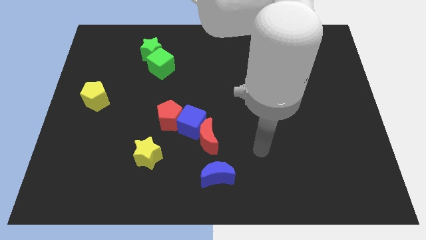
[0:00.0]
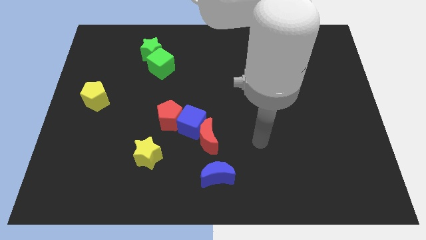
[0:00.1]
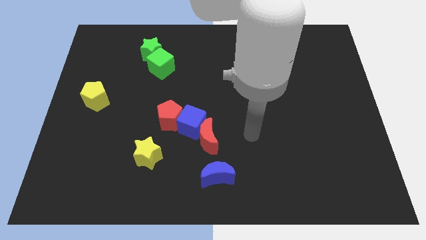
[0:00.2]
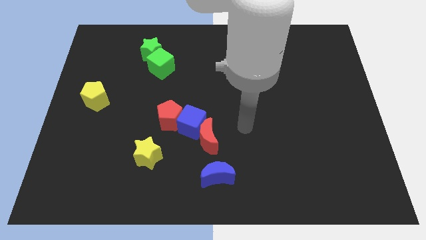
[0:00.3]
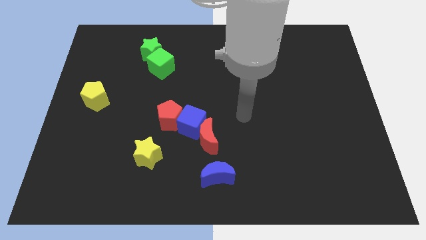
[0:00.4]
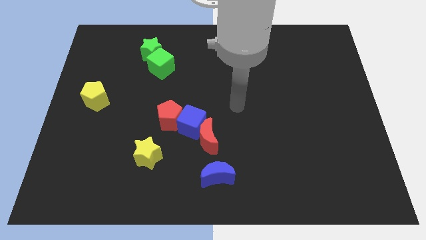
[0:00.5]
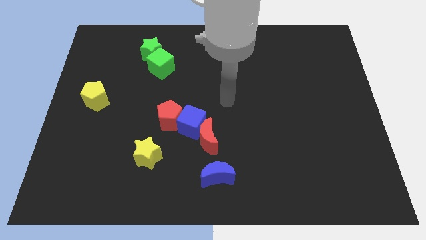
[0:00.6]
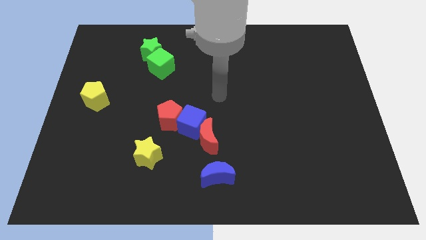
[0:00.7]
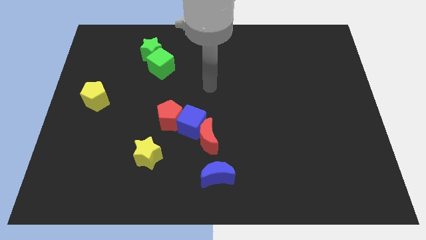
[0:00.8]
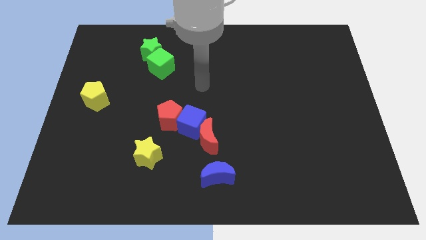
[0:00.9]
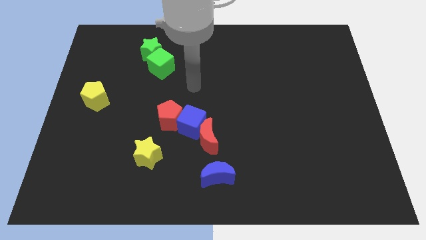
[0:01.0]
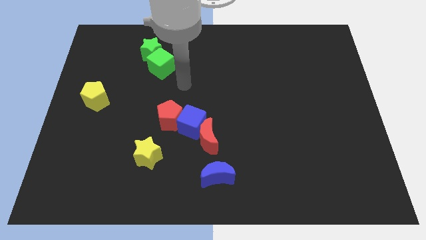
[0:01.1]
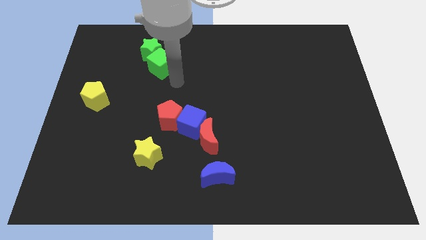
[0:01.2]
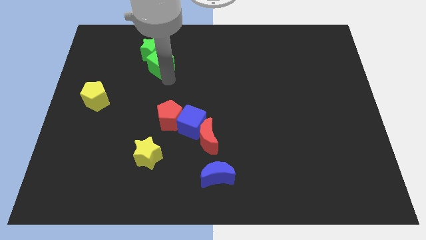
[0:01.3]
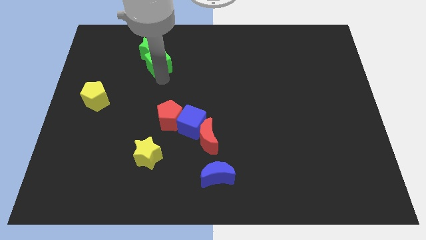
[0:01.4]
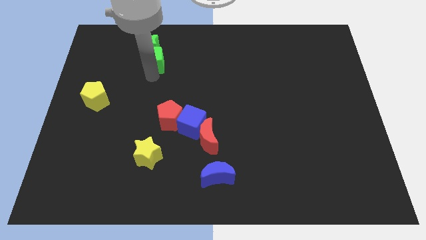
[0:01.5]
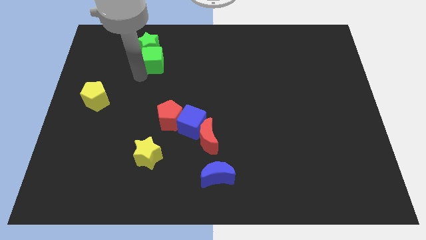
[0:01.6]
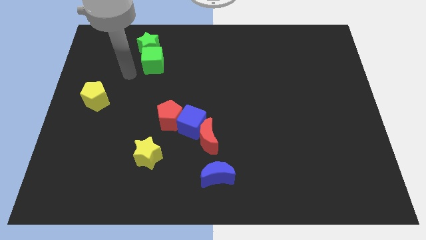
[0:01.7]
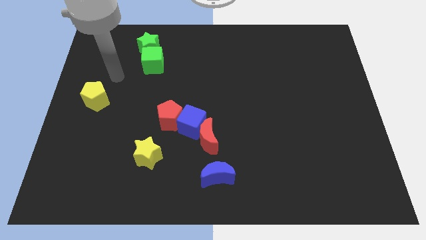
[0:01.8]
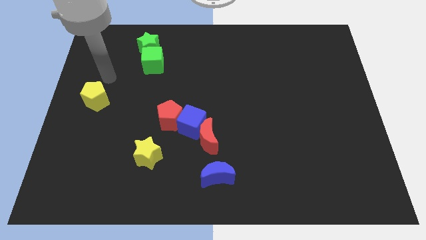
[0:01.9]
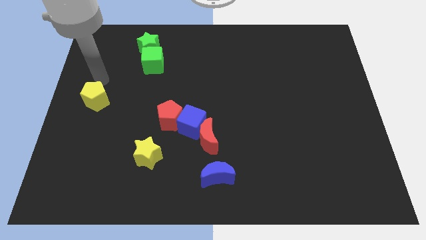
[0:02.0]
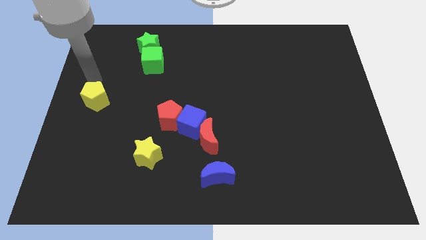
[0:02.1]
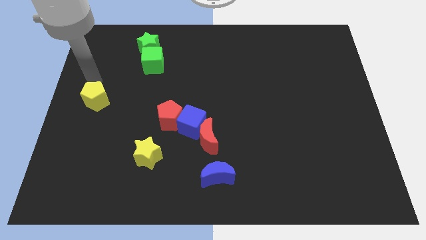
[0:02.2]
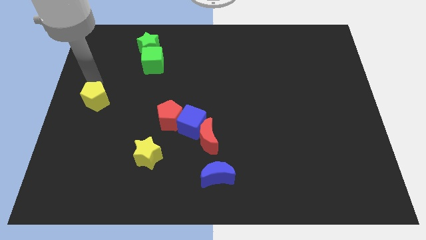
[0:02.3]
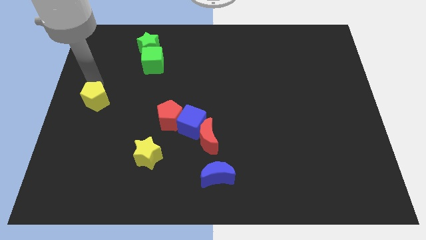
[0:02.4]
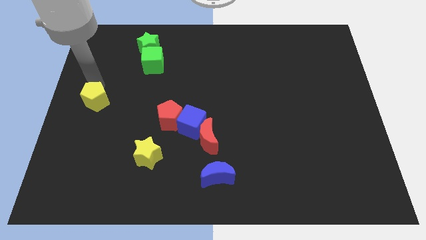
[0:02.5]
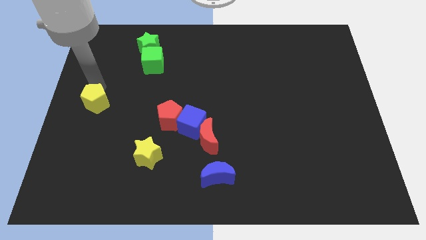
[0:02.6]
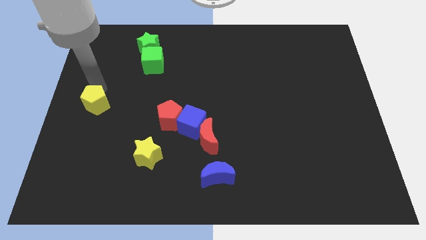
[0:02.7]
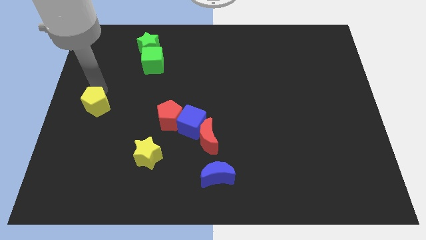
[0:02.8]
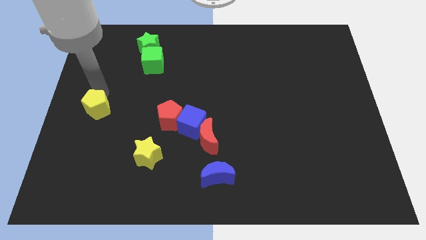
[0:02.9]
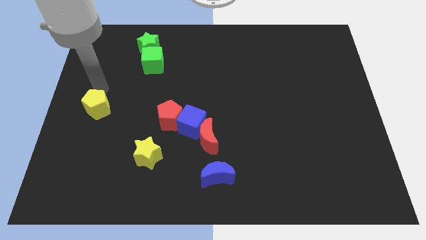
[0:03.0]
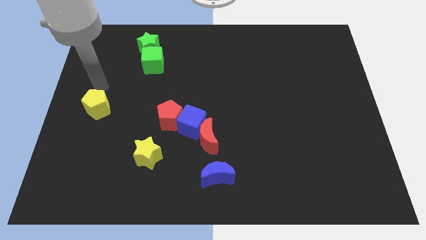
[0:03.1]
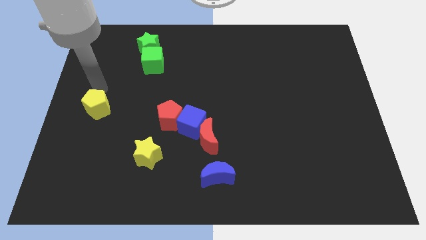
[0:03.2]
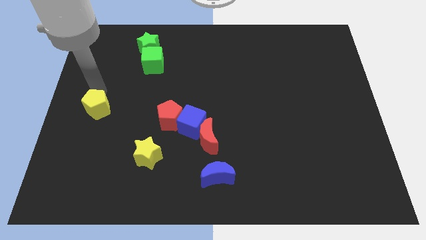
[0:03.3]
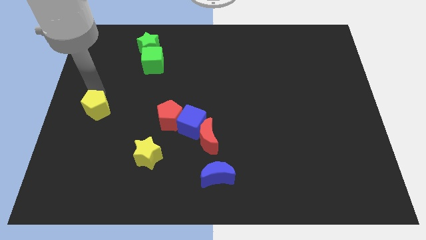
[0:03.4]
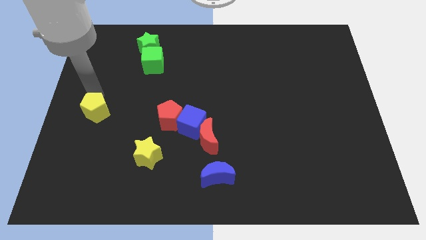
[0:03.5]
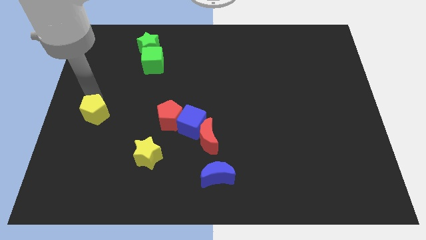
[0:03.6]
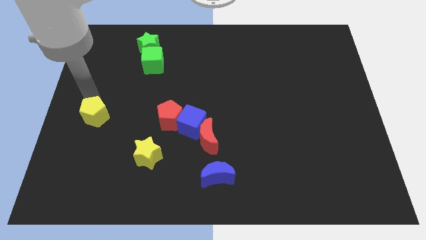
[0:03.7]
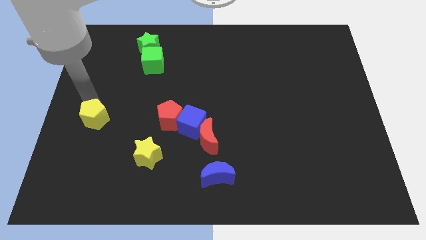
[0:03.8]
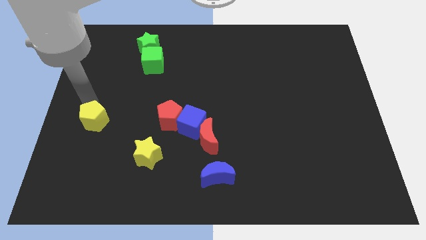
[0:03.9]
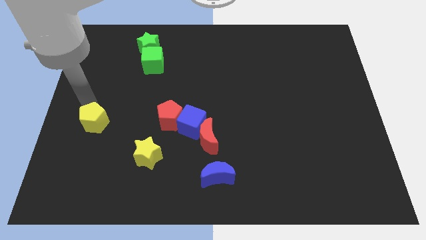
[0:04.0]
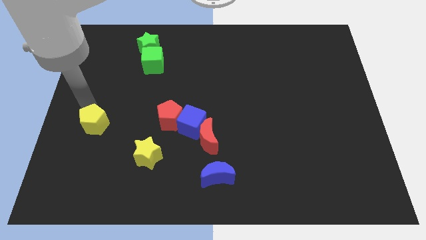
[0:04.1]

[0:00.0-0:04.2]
push the yellow pentagon a bit down

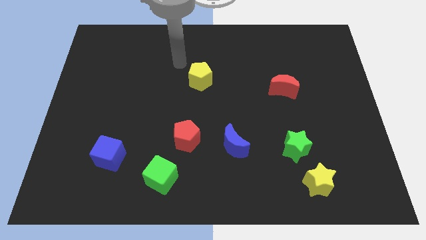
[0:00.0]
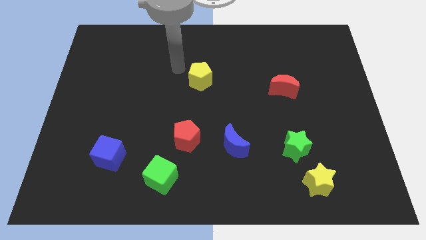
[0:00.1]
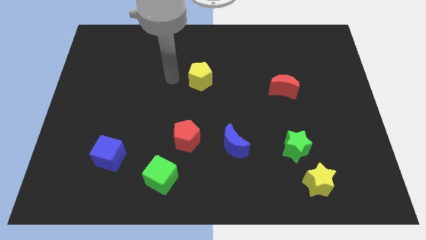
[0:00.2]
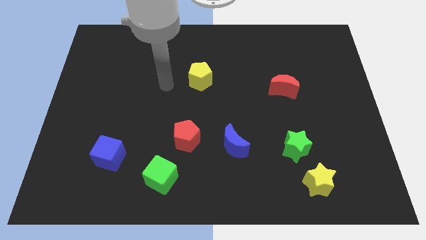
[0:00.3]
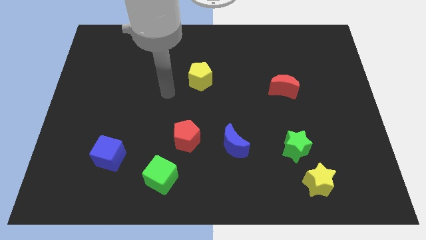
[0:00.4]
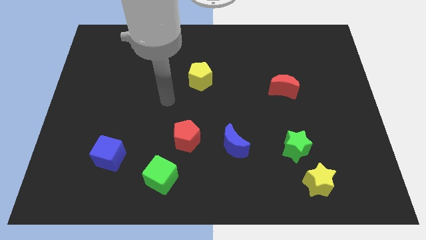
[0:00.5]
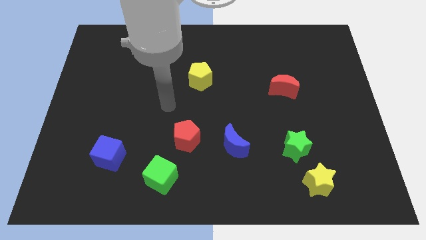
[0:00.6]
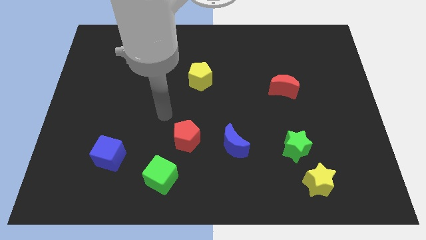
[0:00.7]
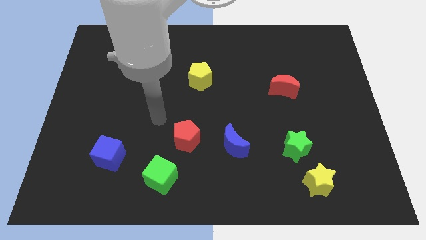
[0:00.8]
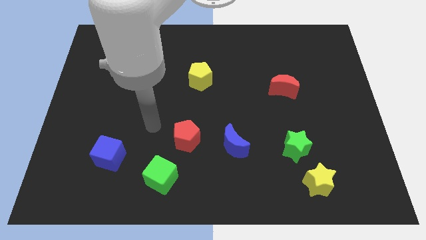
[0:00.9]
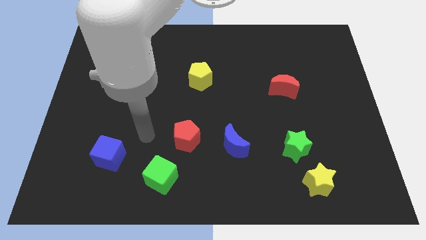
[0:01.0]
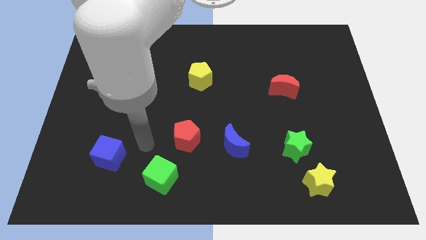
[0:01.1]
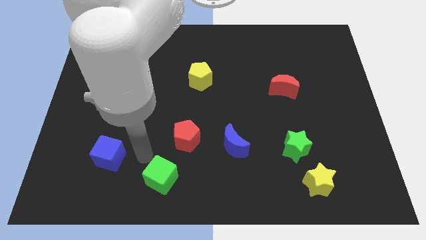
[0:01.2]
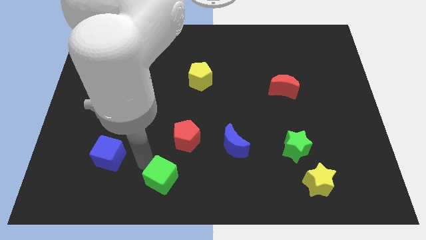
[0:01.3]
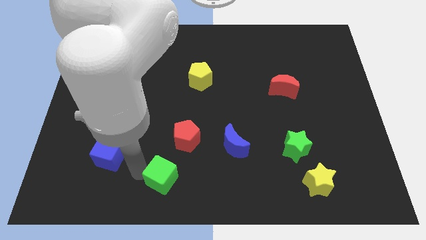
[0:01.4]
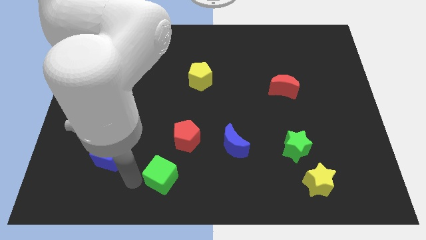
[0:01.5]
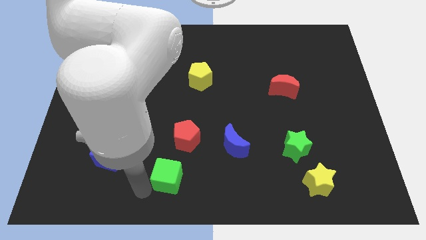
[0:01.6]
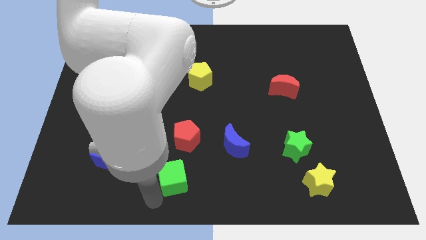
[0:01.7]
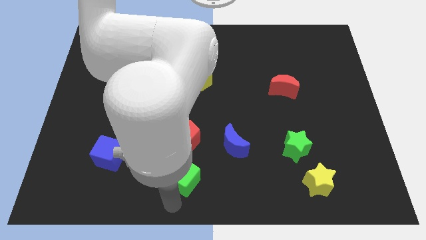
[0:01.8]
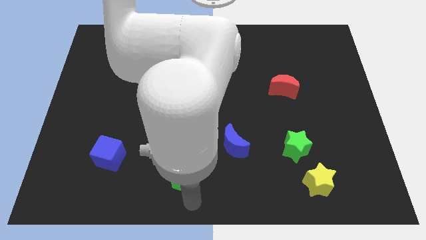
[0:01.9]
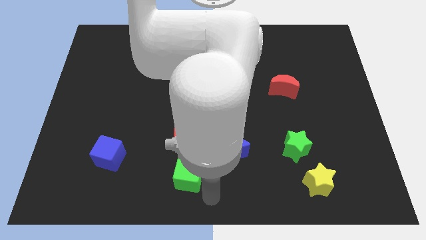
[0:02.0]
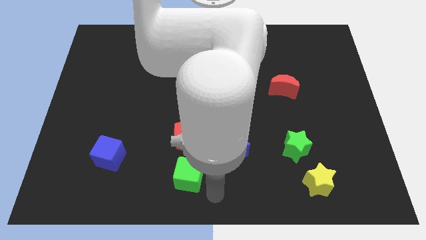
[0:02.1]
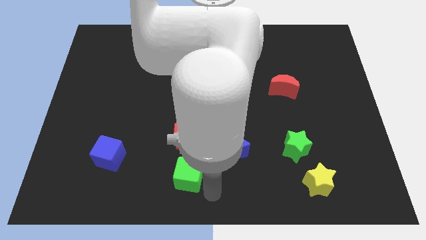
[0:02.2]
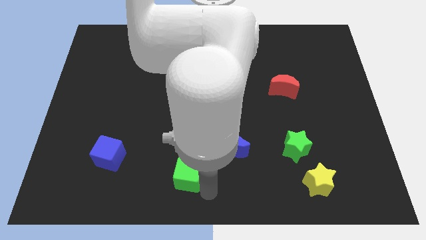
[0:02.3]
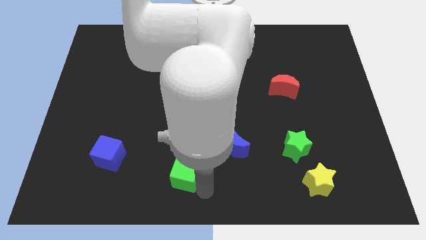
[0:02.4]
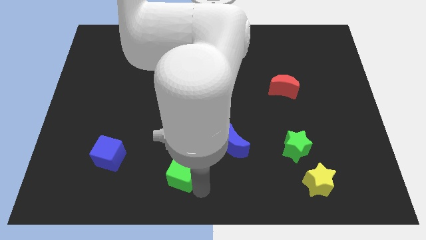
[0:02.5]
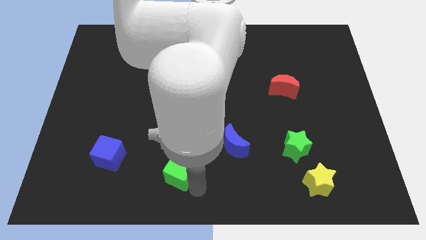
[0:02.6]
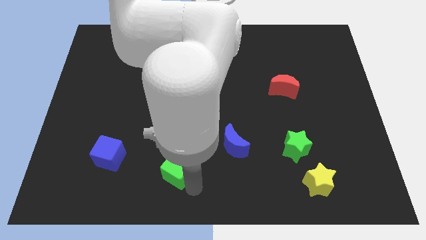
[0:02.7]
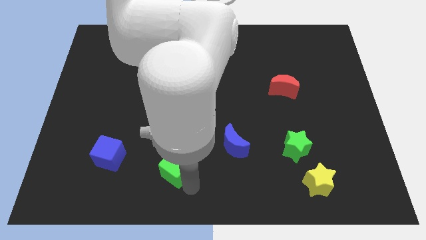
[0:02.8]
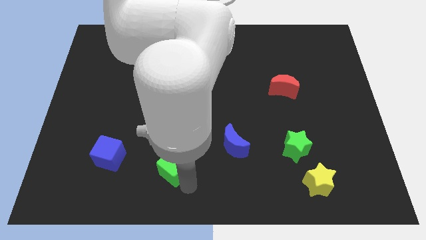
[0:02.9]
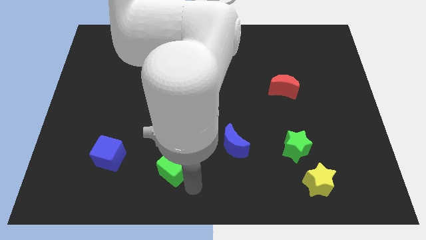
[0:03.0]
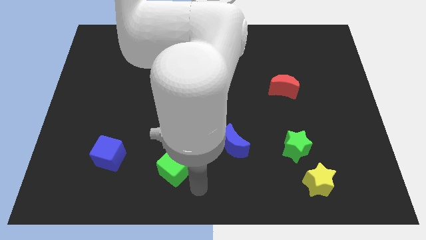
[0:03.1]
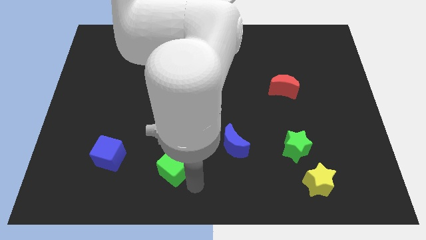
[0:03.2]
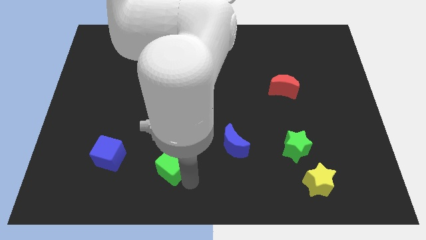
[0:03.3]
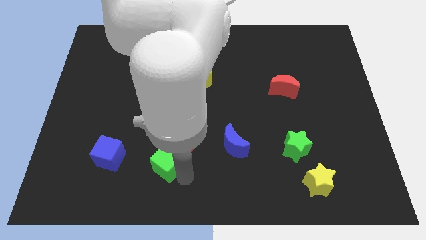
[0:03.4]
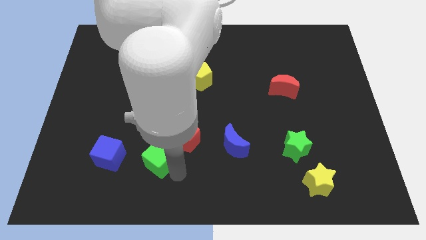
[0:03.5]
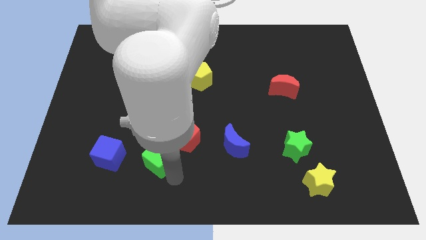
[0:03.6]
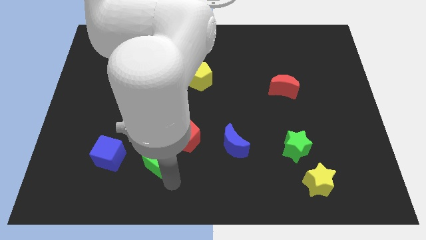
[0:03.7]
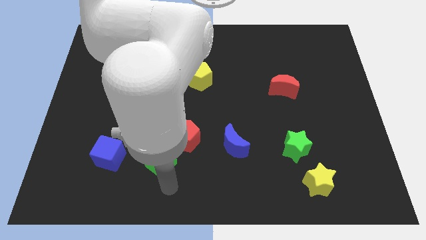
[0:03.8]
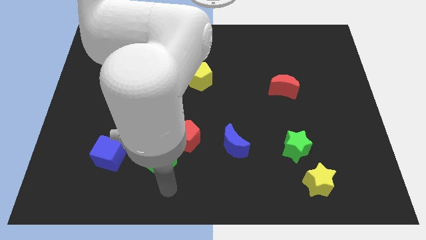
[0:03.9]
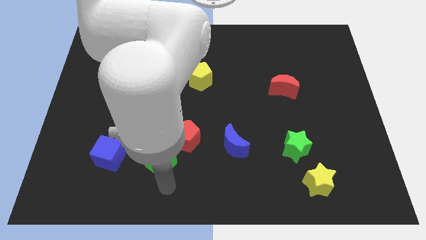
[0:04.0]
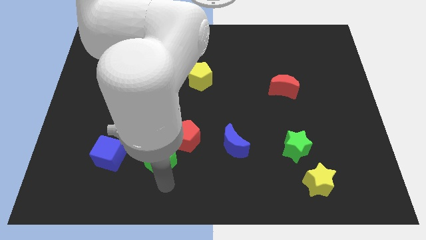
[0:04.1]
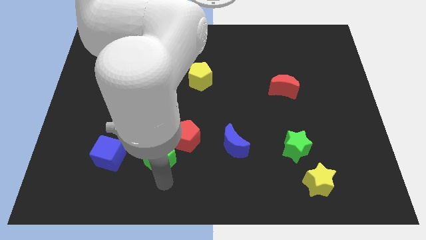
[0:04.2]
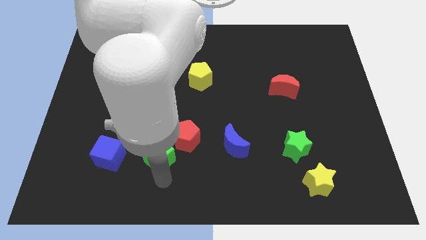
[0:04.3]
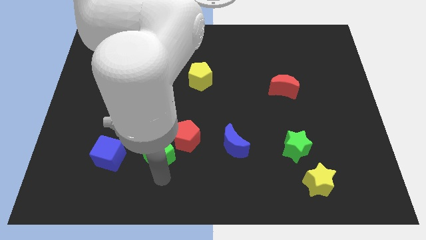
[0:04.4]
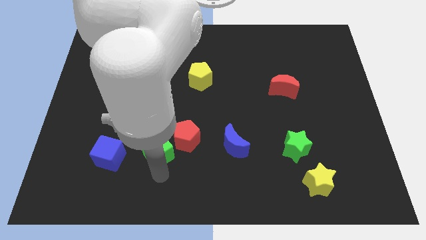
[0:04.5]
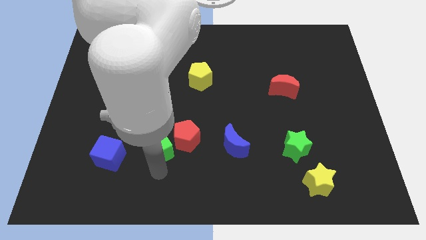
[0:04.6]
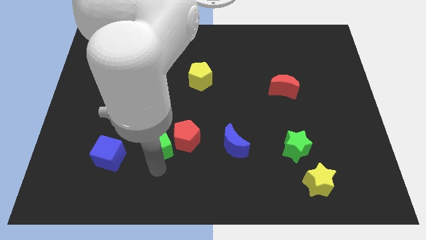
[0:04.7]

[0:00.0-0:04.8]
slightly slide the green cube upwards
